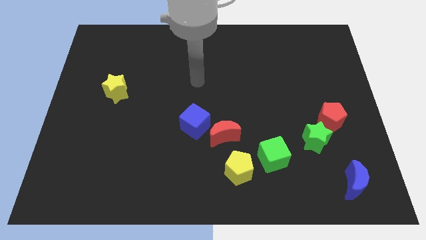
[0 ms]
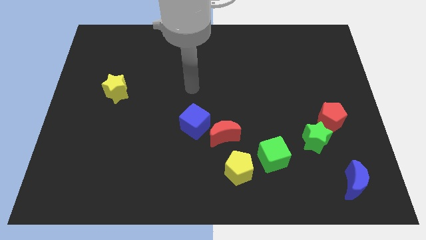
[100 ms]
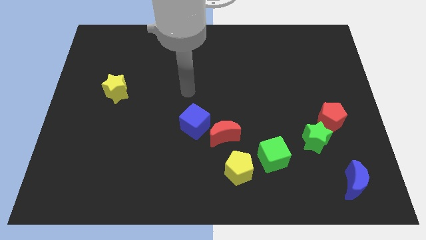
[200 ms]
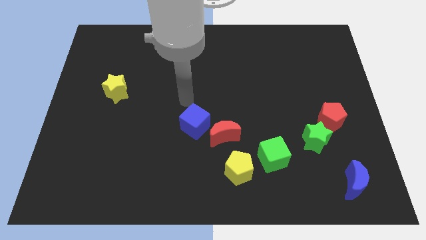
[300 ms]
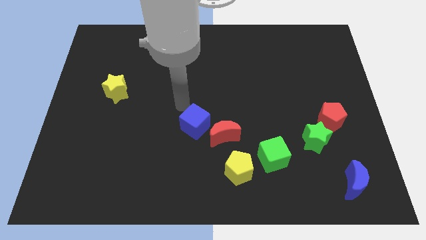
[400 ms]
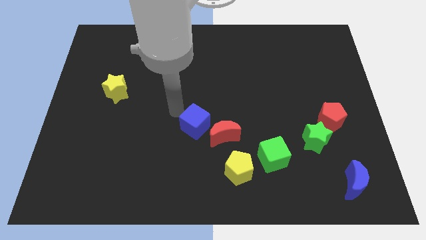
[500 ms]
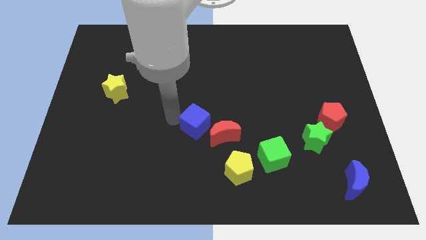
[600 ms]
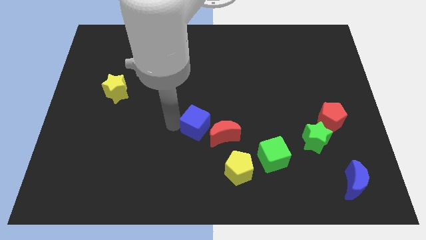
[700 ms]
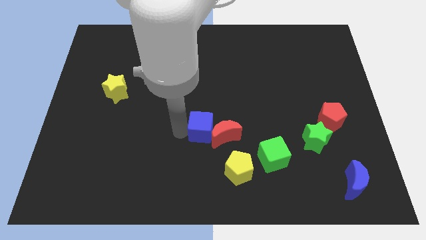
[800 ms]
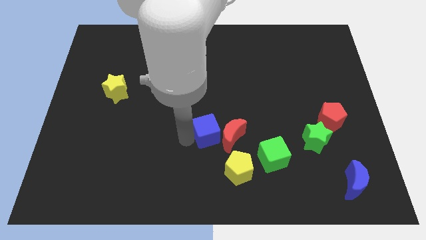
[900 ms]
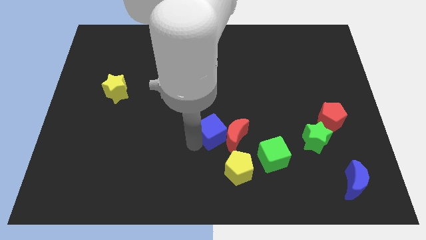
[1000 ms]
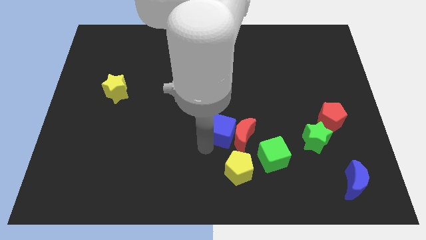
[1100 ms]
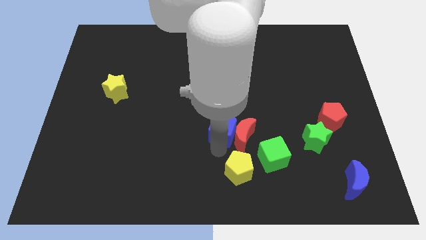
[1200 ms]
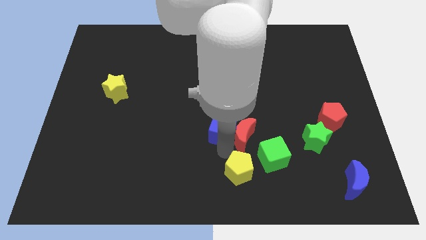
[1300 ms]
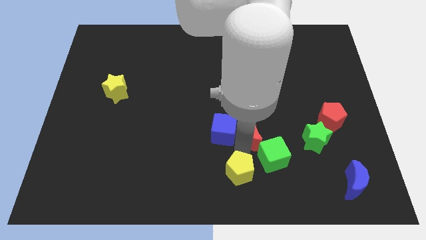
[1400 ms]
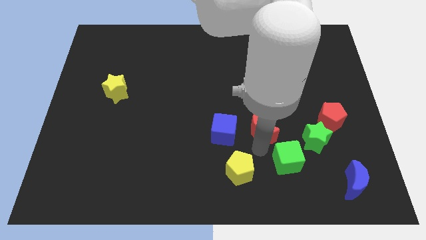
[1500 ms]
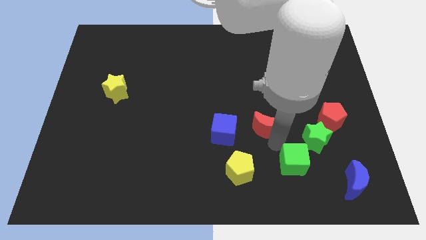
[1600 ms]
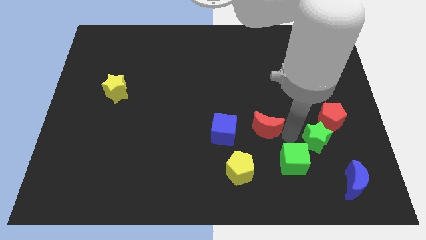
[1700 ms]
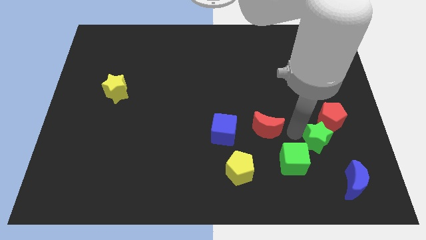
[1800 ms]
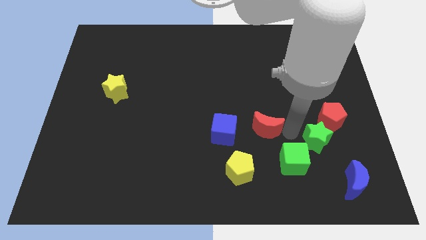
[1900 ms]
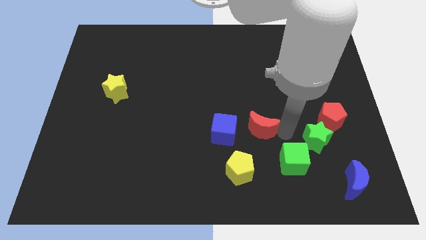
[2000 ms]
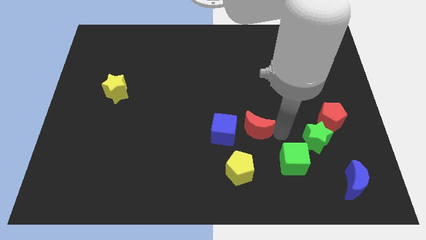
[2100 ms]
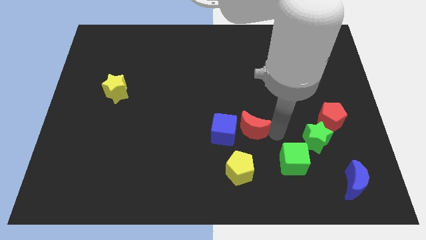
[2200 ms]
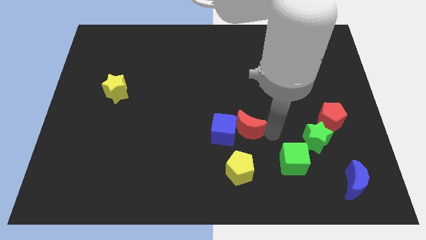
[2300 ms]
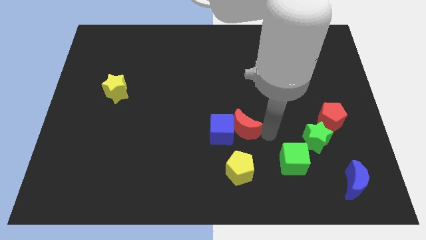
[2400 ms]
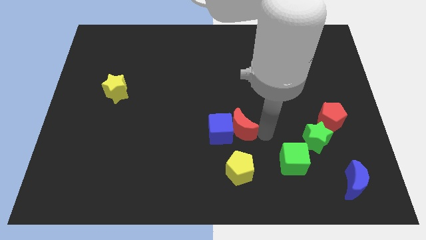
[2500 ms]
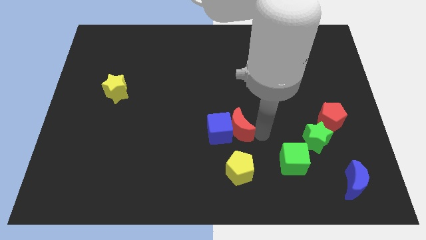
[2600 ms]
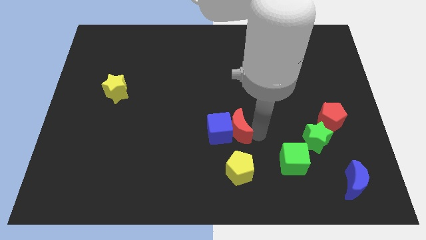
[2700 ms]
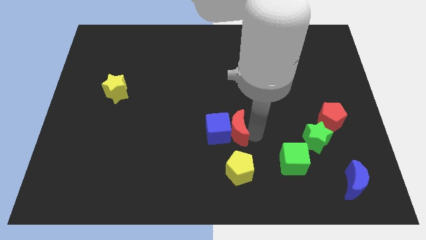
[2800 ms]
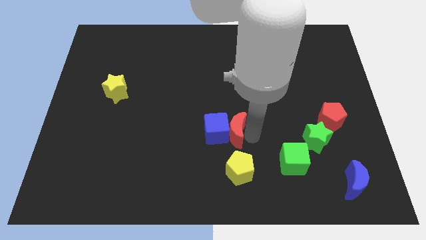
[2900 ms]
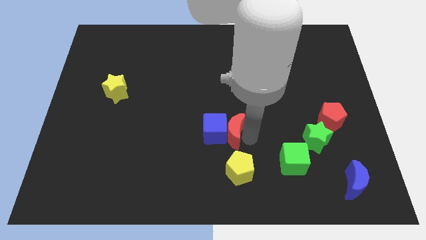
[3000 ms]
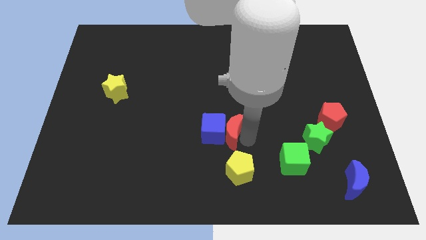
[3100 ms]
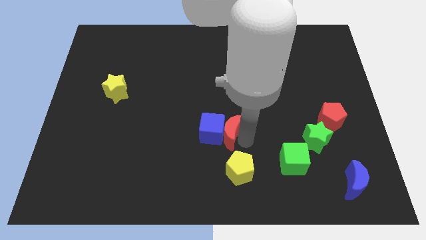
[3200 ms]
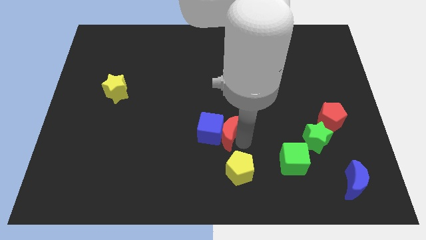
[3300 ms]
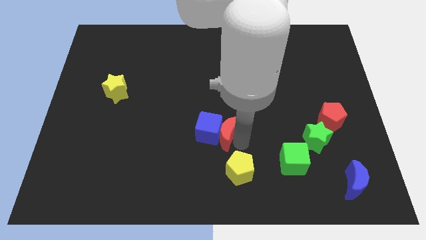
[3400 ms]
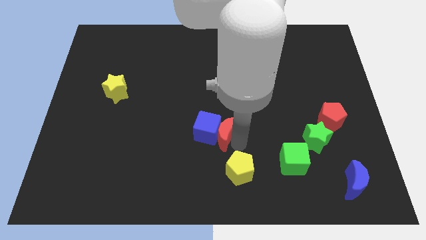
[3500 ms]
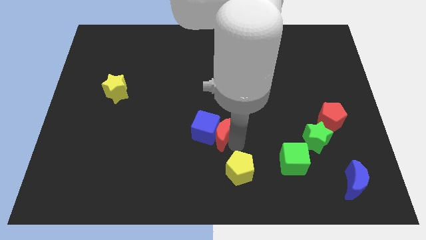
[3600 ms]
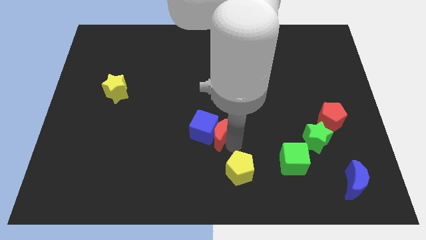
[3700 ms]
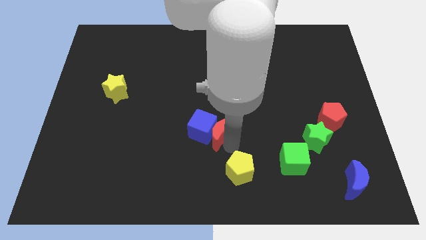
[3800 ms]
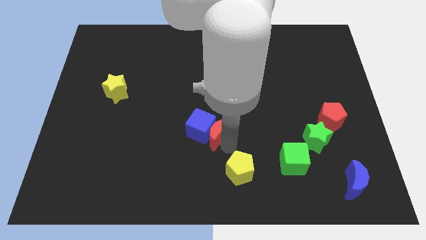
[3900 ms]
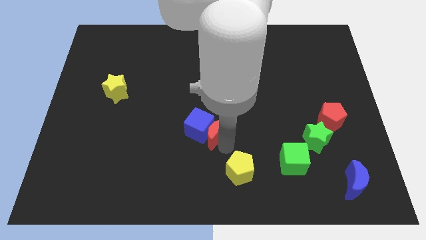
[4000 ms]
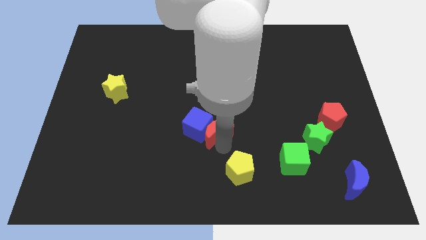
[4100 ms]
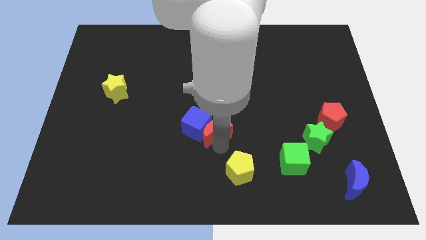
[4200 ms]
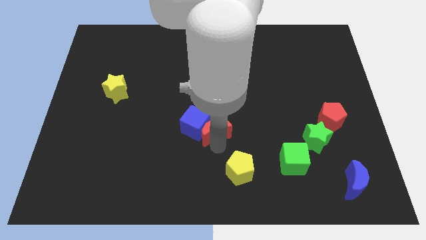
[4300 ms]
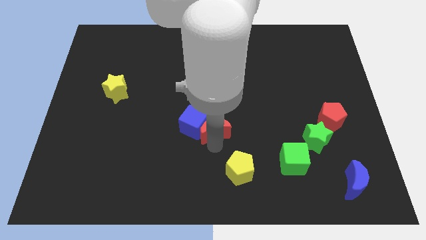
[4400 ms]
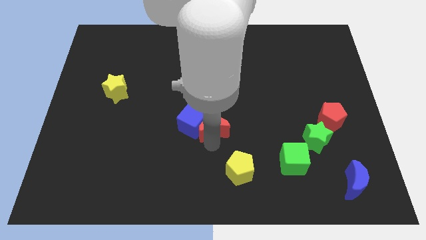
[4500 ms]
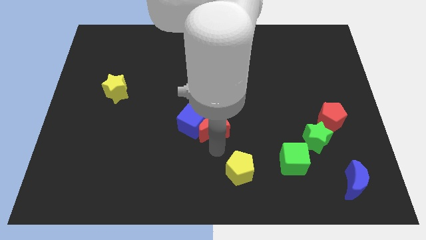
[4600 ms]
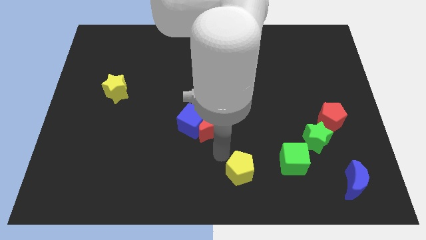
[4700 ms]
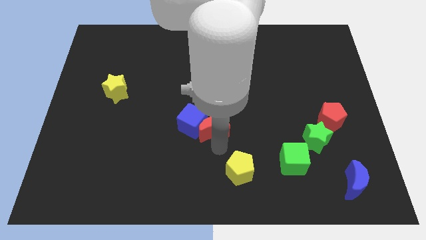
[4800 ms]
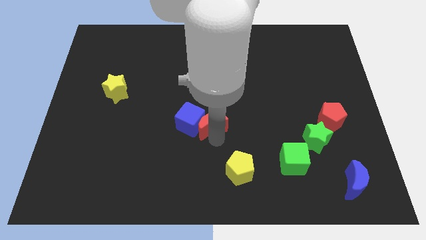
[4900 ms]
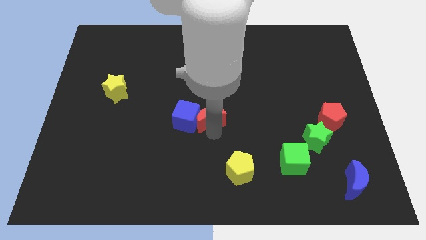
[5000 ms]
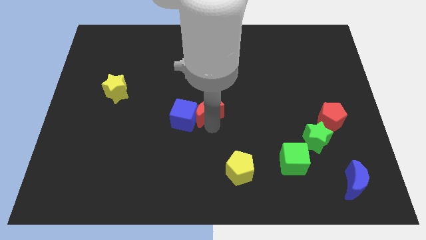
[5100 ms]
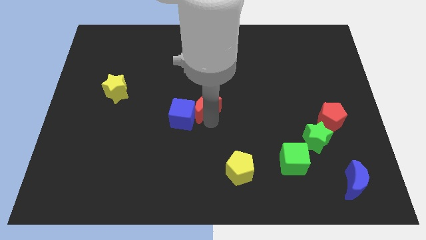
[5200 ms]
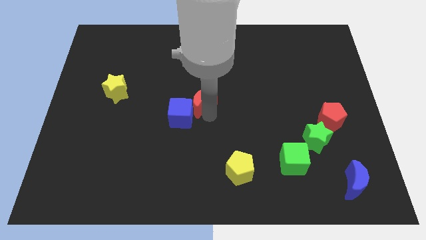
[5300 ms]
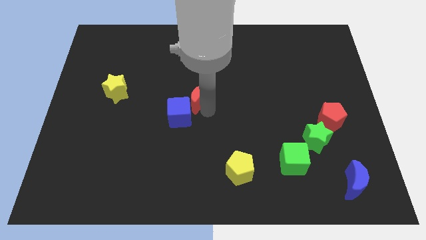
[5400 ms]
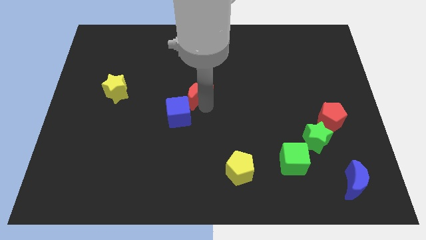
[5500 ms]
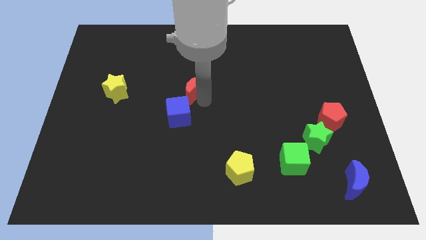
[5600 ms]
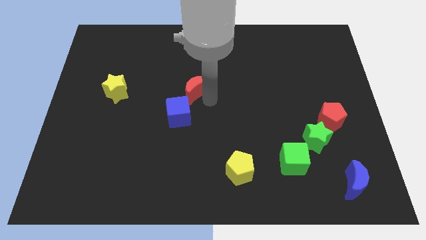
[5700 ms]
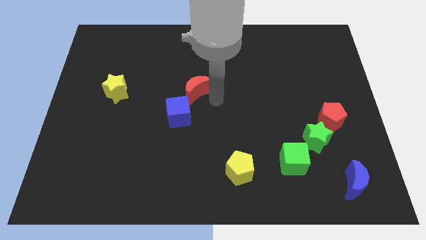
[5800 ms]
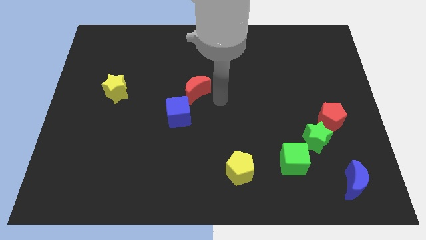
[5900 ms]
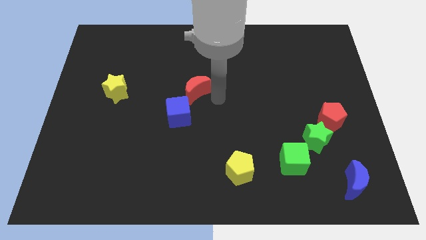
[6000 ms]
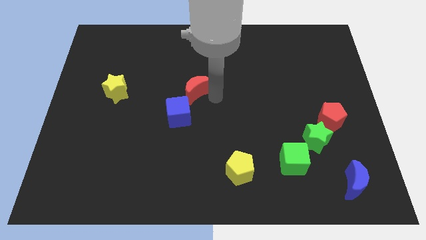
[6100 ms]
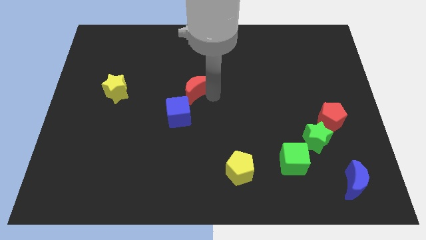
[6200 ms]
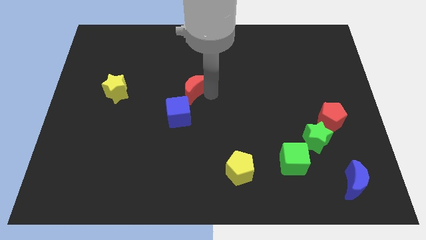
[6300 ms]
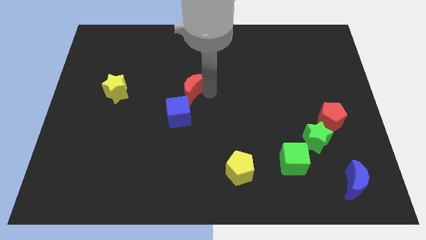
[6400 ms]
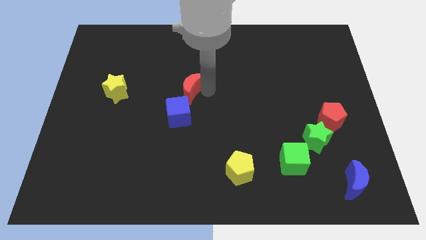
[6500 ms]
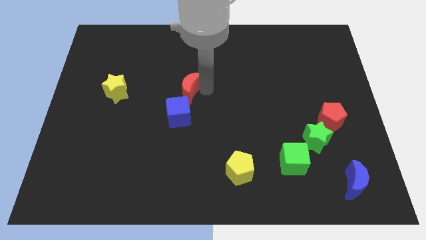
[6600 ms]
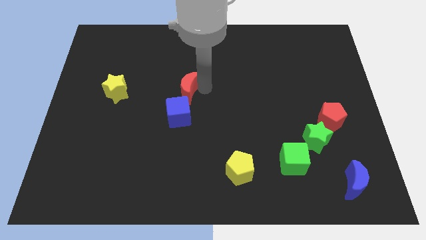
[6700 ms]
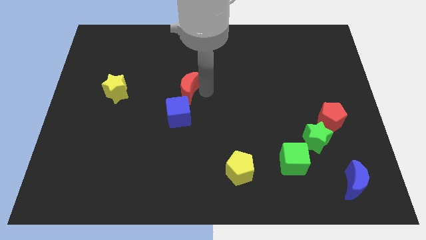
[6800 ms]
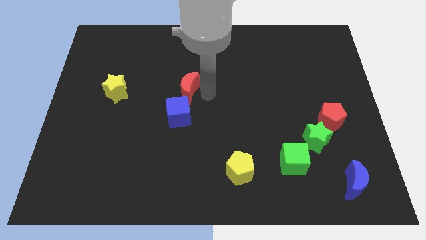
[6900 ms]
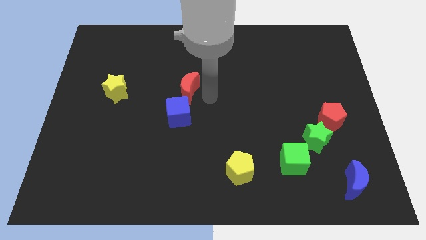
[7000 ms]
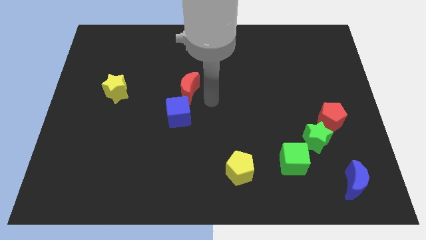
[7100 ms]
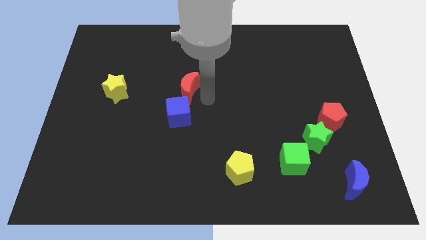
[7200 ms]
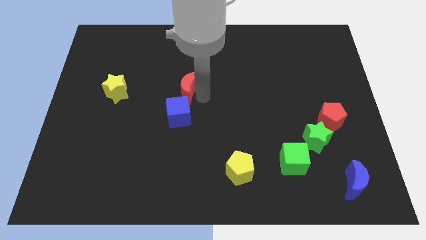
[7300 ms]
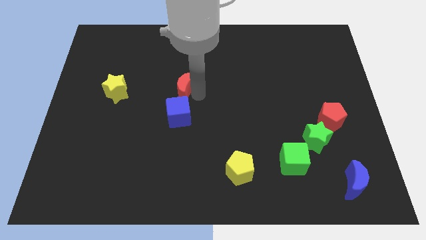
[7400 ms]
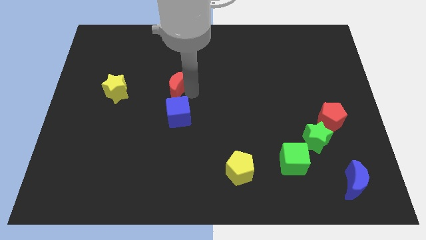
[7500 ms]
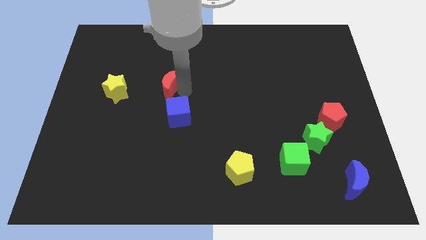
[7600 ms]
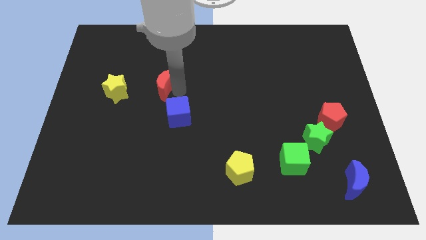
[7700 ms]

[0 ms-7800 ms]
push the red moon up and to the left diagonally
